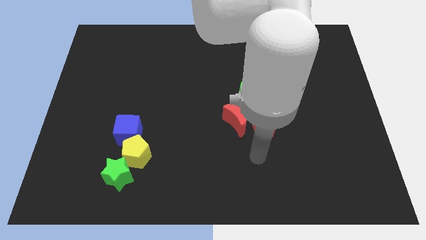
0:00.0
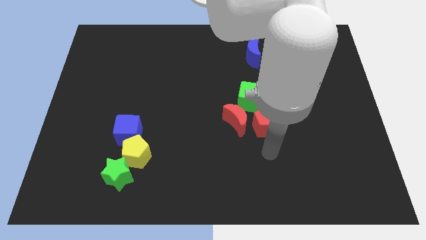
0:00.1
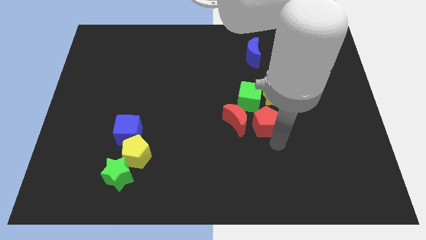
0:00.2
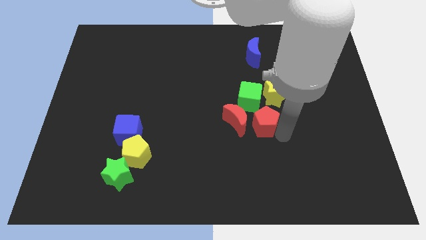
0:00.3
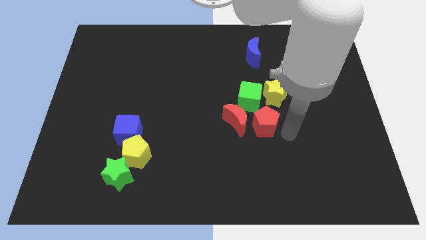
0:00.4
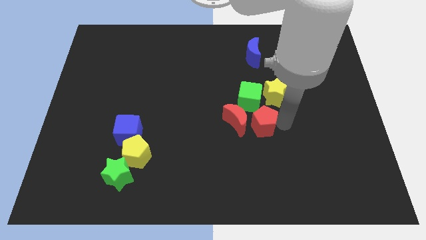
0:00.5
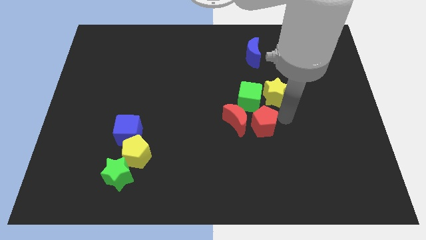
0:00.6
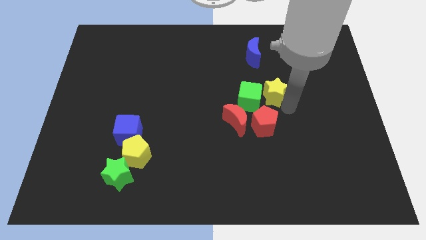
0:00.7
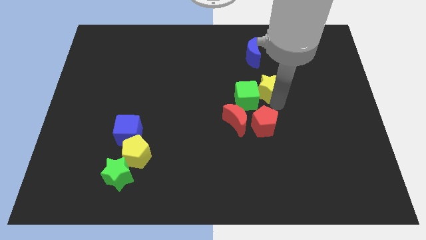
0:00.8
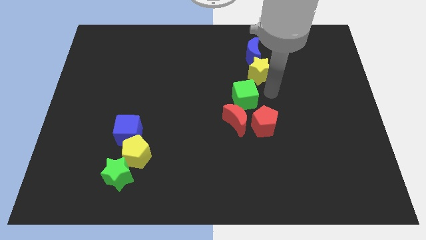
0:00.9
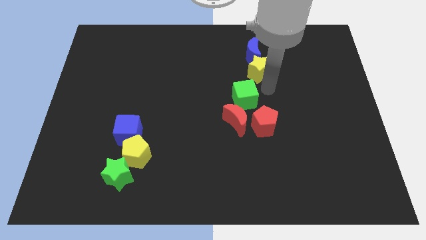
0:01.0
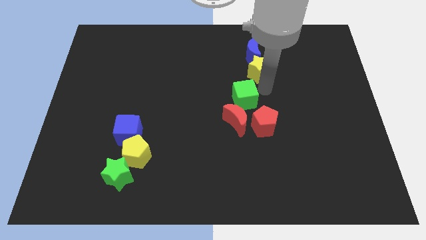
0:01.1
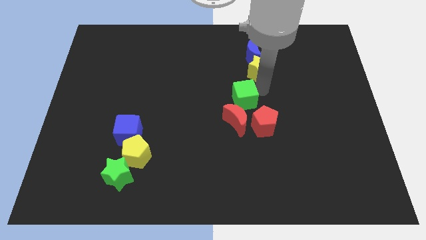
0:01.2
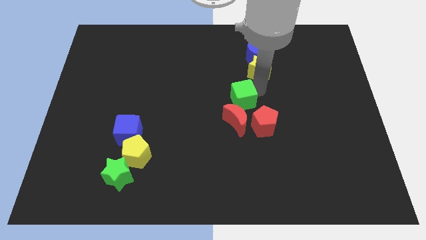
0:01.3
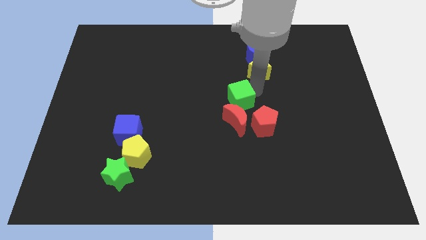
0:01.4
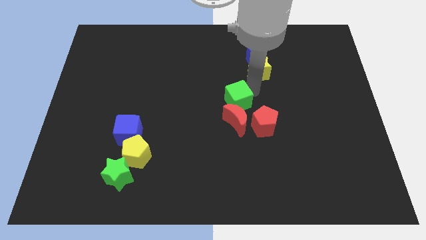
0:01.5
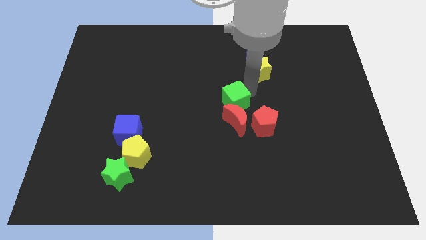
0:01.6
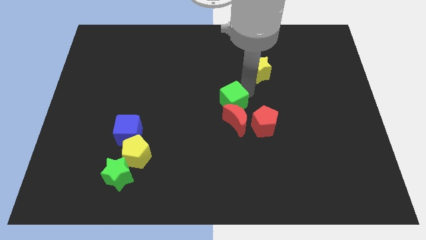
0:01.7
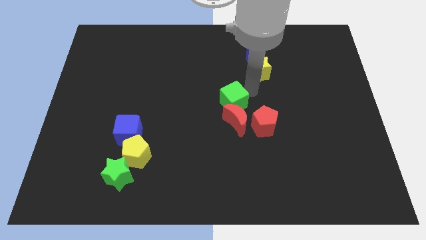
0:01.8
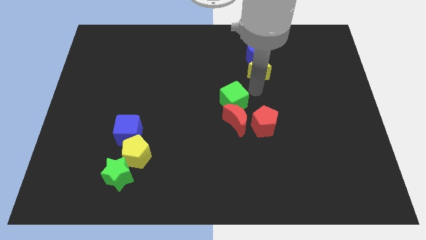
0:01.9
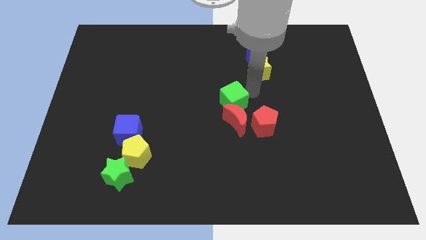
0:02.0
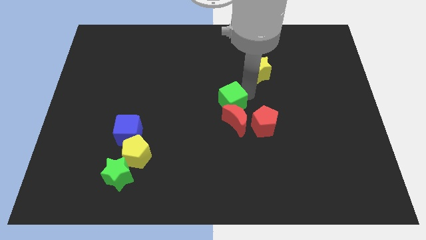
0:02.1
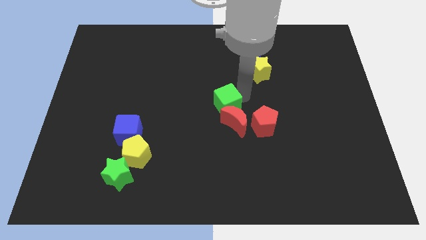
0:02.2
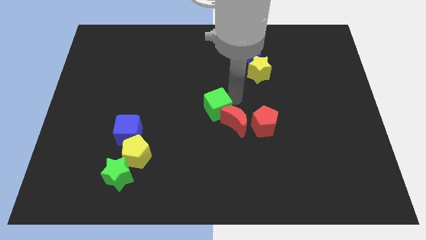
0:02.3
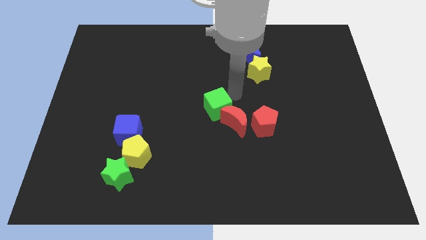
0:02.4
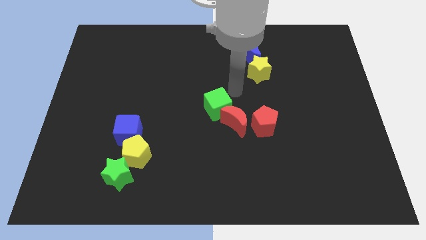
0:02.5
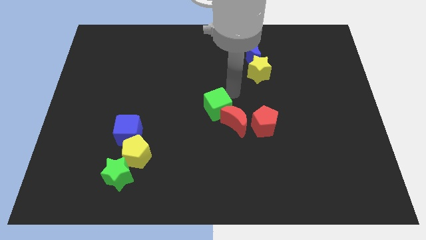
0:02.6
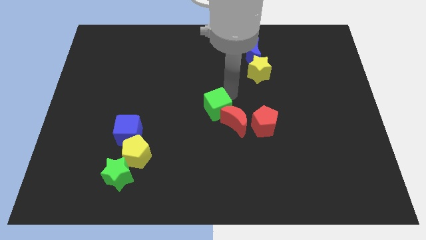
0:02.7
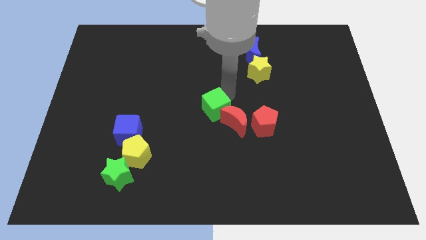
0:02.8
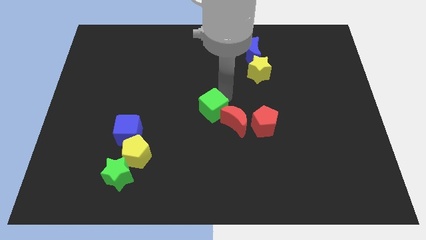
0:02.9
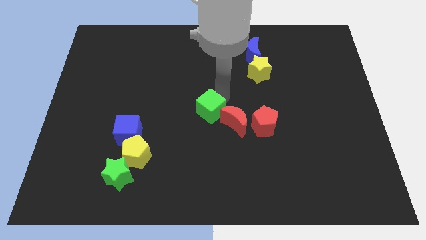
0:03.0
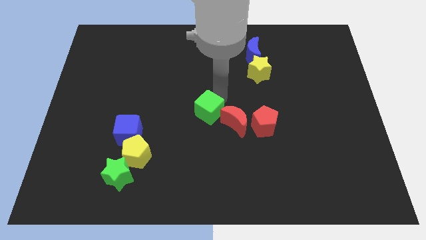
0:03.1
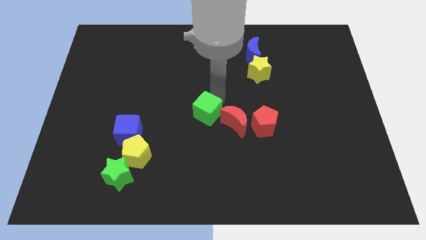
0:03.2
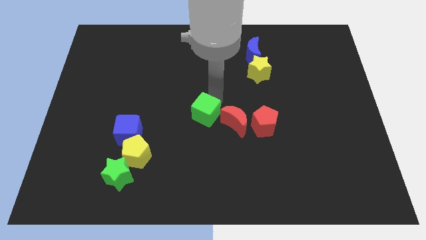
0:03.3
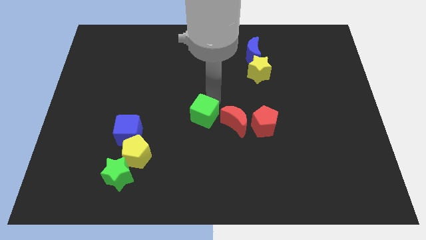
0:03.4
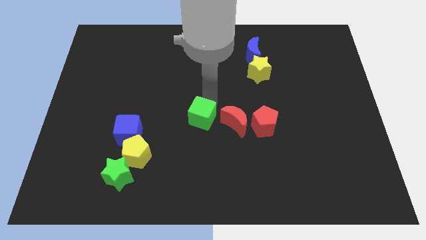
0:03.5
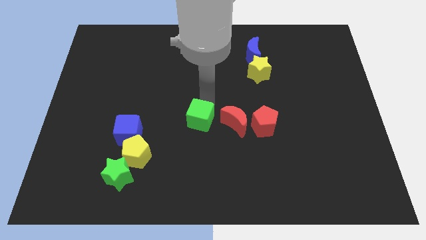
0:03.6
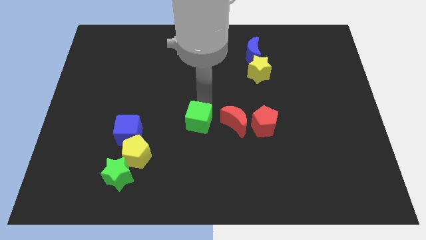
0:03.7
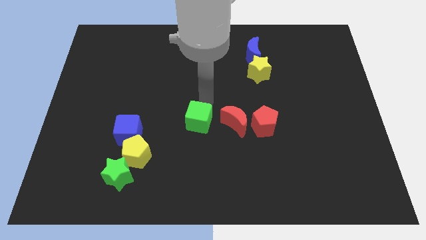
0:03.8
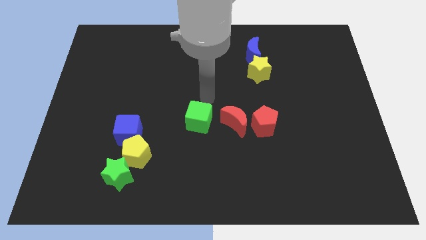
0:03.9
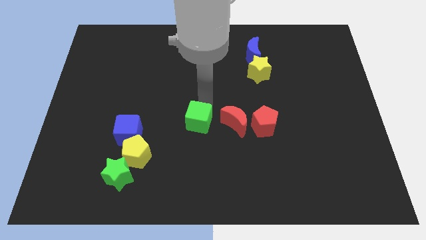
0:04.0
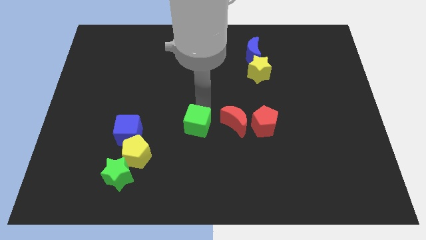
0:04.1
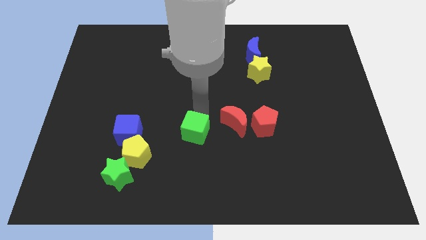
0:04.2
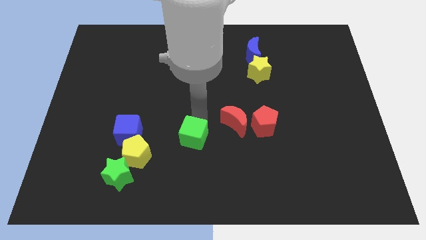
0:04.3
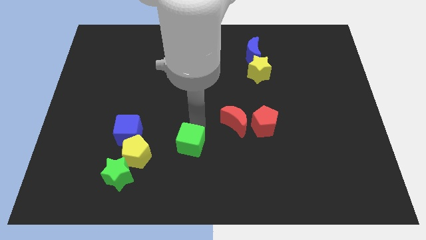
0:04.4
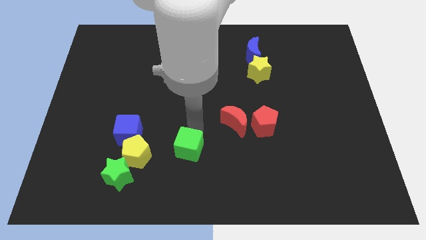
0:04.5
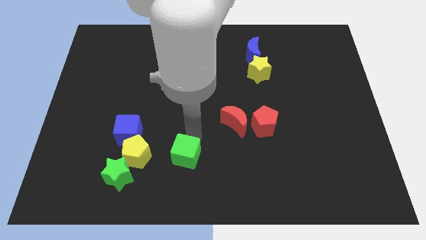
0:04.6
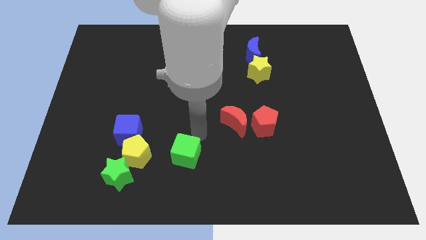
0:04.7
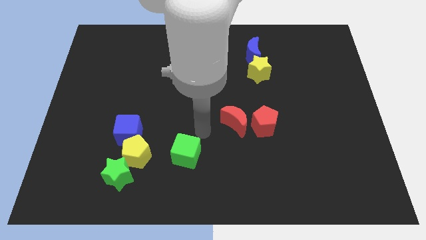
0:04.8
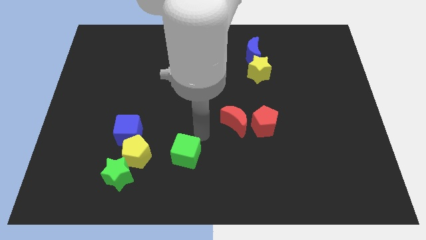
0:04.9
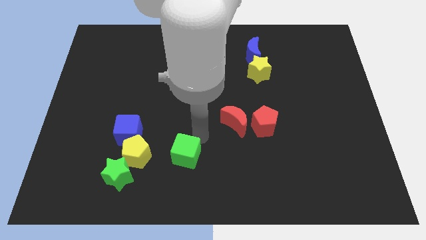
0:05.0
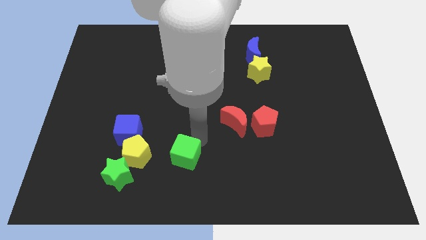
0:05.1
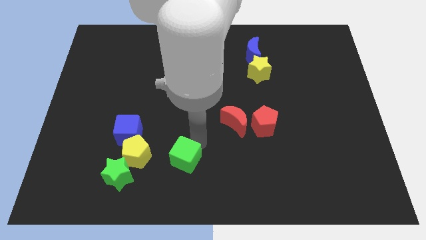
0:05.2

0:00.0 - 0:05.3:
push the green cube right of the green star
